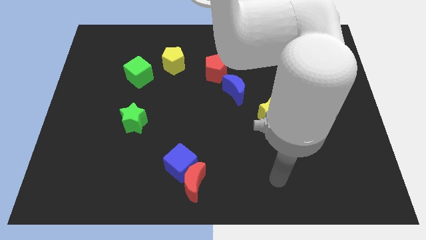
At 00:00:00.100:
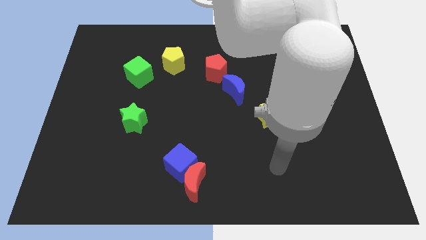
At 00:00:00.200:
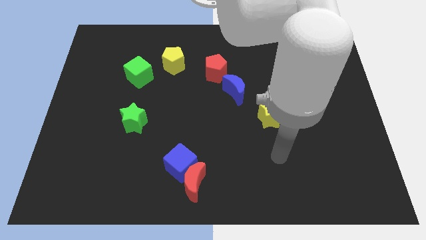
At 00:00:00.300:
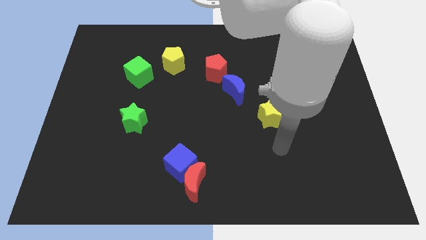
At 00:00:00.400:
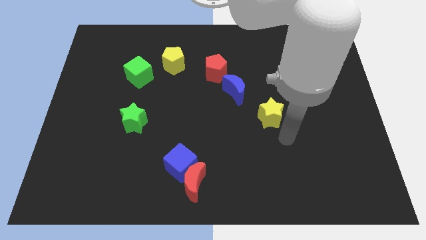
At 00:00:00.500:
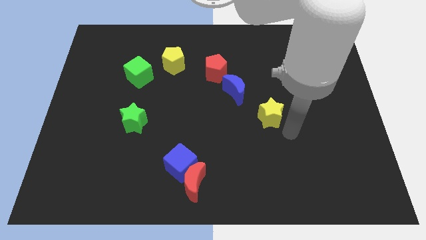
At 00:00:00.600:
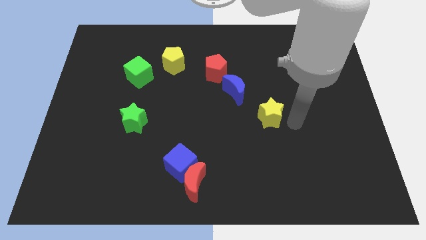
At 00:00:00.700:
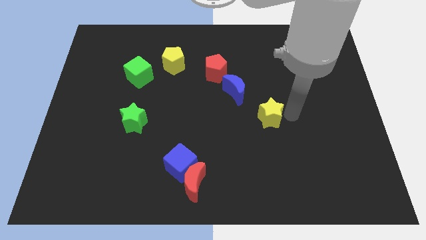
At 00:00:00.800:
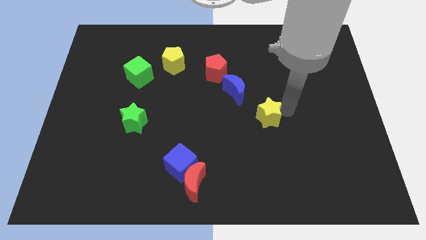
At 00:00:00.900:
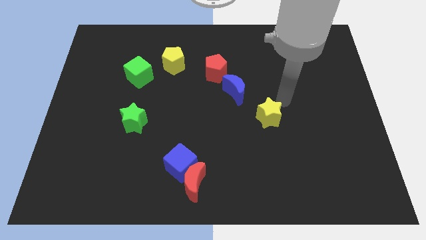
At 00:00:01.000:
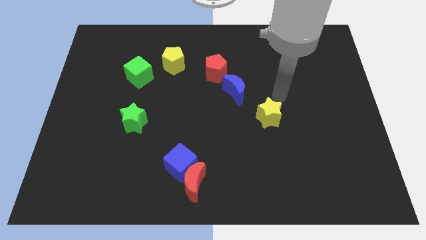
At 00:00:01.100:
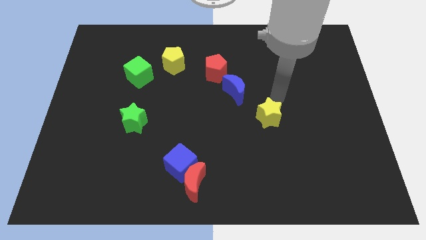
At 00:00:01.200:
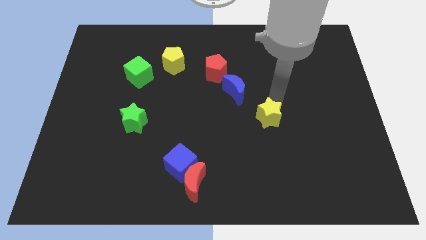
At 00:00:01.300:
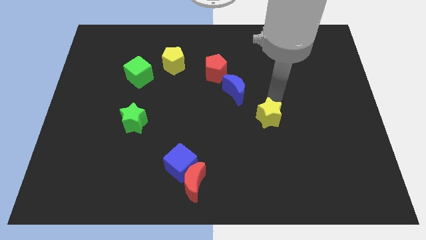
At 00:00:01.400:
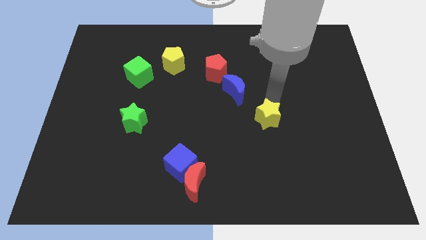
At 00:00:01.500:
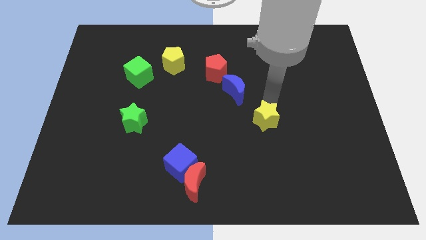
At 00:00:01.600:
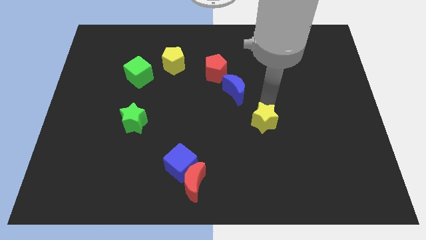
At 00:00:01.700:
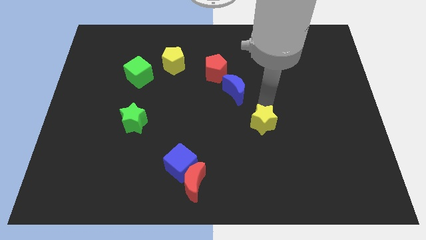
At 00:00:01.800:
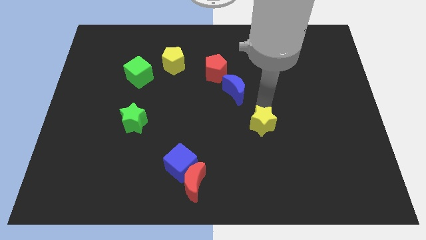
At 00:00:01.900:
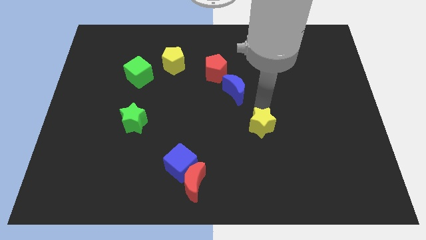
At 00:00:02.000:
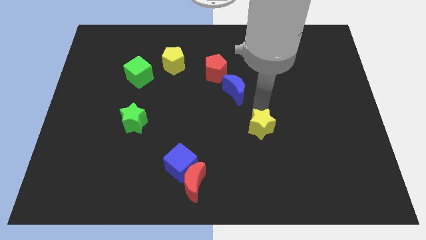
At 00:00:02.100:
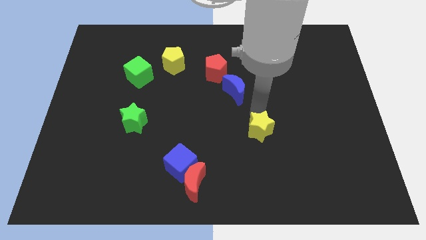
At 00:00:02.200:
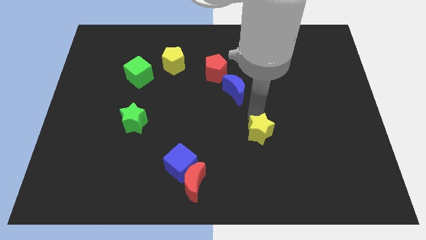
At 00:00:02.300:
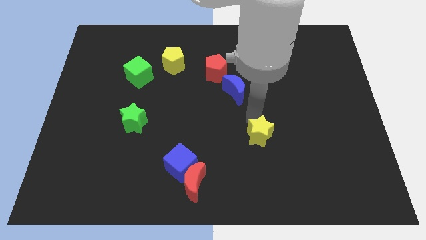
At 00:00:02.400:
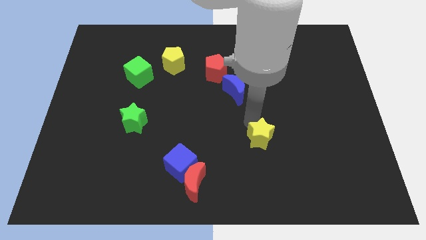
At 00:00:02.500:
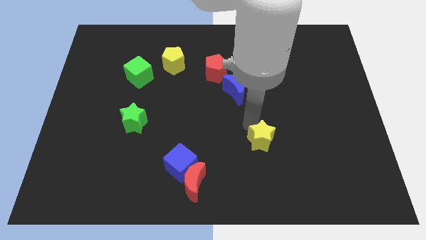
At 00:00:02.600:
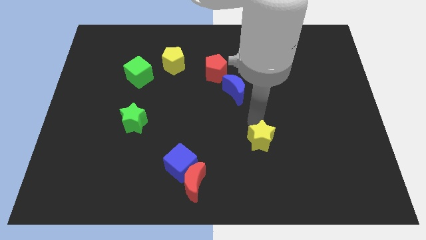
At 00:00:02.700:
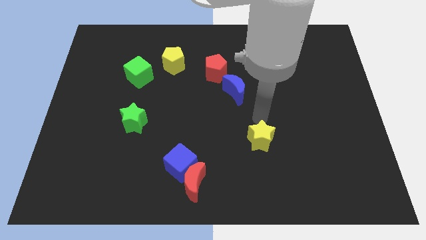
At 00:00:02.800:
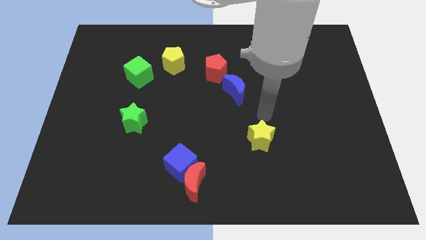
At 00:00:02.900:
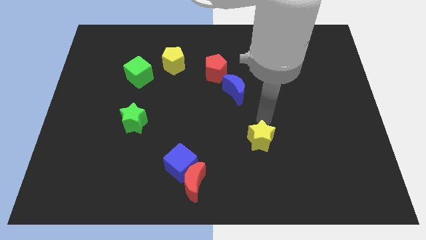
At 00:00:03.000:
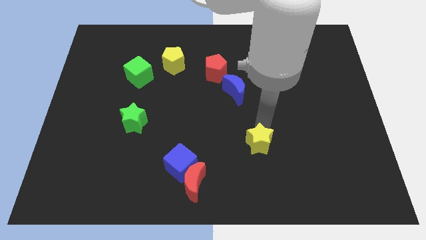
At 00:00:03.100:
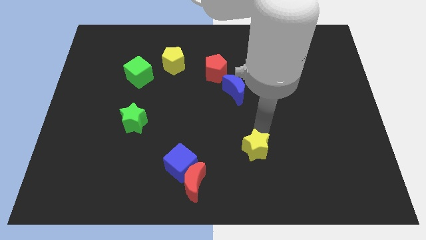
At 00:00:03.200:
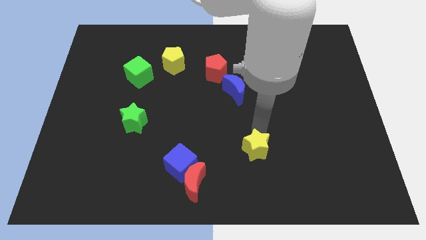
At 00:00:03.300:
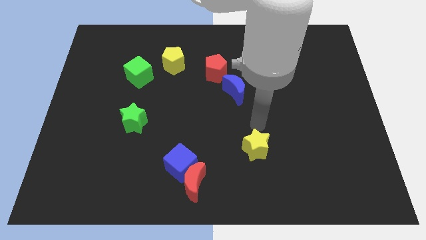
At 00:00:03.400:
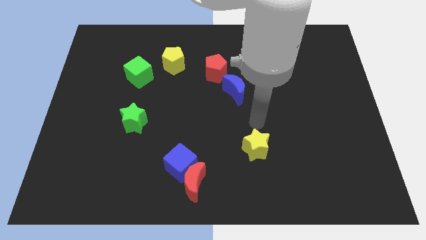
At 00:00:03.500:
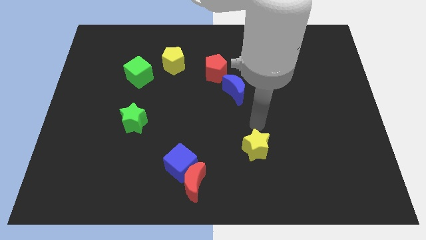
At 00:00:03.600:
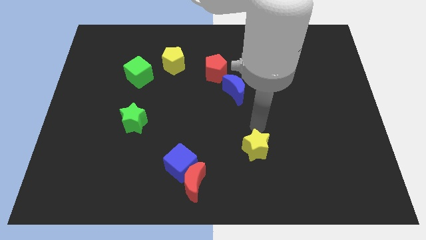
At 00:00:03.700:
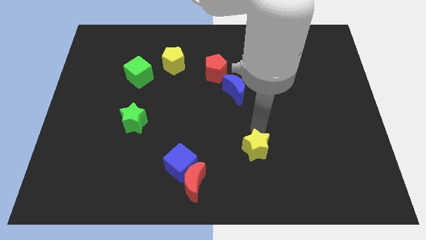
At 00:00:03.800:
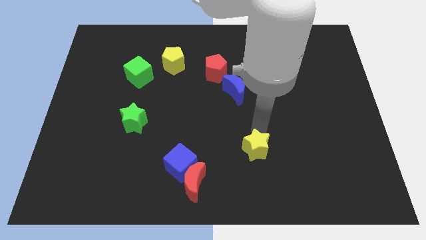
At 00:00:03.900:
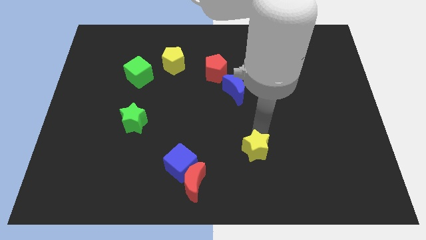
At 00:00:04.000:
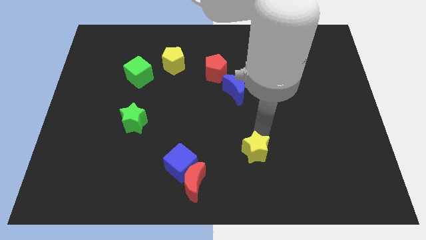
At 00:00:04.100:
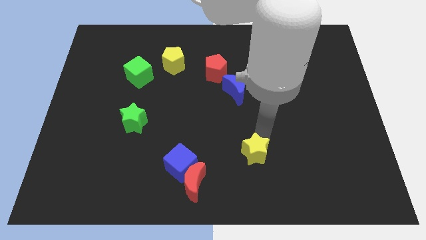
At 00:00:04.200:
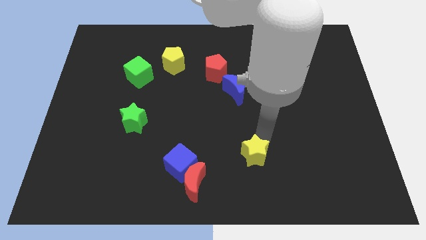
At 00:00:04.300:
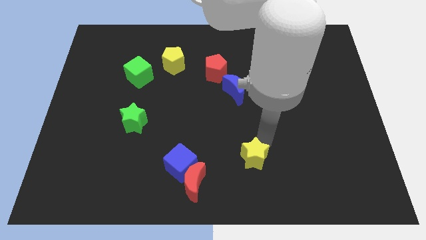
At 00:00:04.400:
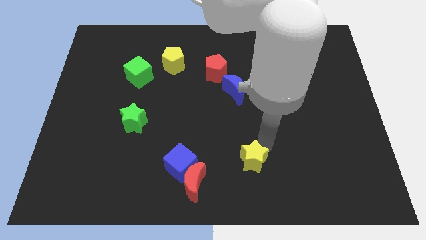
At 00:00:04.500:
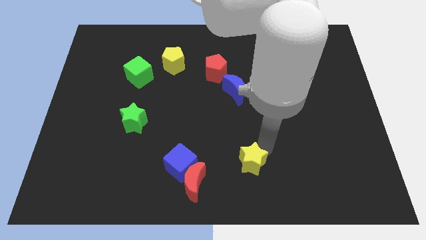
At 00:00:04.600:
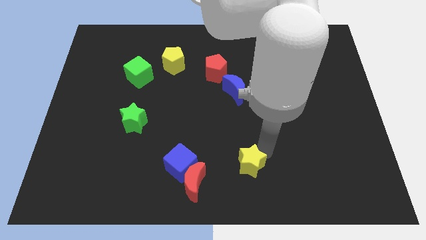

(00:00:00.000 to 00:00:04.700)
put the yellow star to the bottom side

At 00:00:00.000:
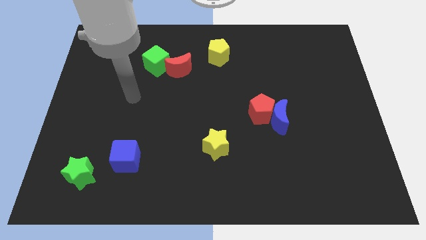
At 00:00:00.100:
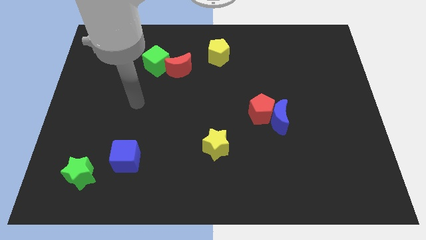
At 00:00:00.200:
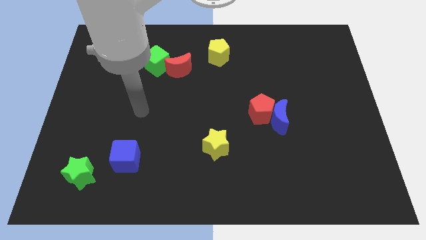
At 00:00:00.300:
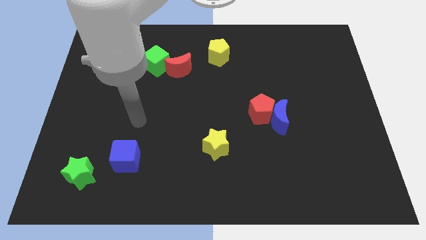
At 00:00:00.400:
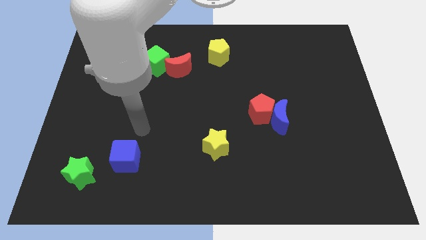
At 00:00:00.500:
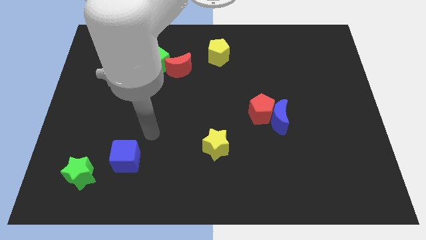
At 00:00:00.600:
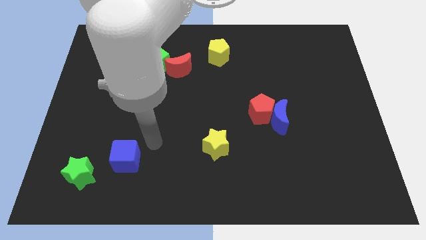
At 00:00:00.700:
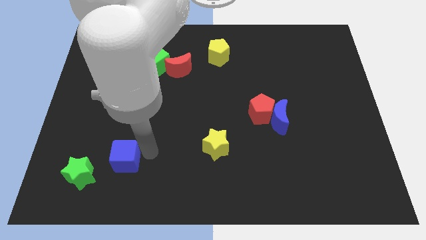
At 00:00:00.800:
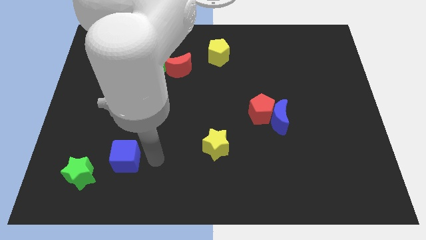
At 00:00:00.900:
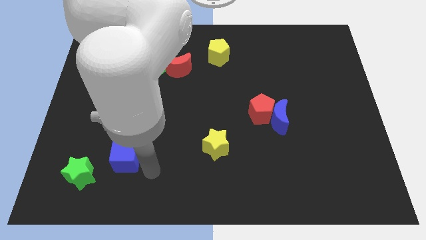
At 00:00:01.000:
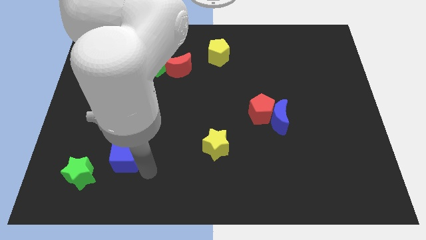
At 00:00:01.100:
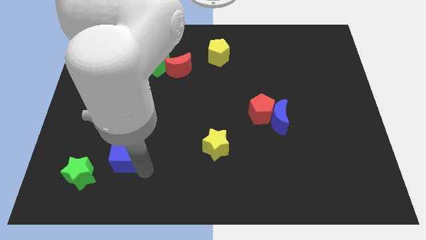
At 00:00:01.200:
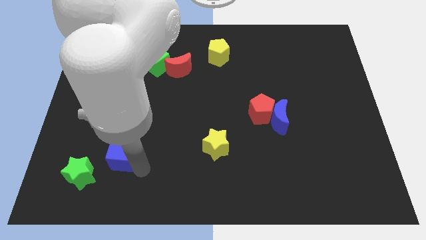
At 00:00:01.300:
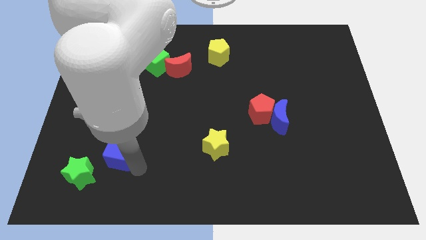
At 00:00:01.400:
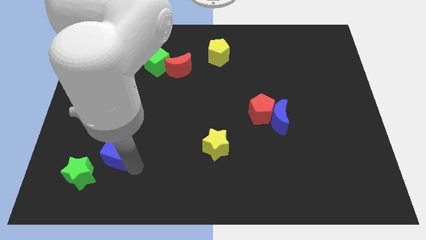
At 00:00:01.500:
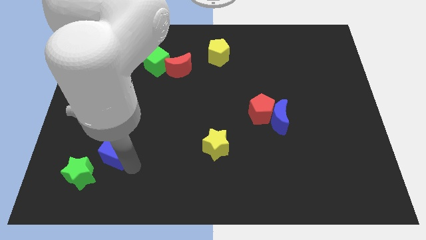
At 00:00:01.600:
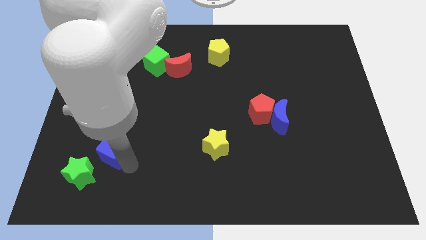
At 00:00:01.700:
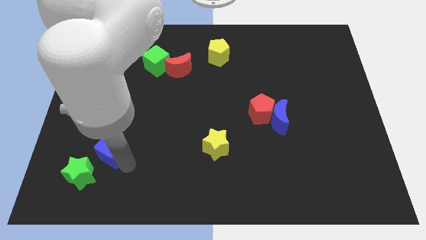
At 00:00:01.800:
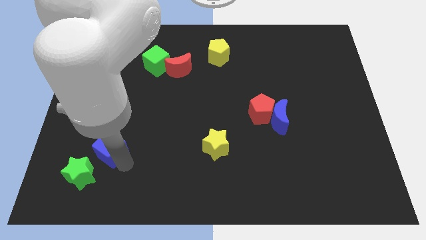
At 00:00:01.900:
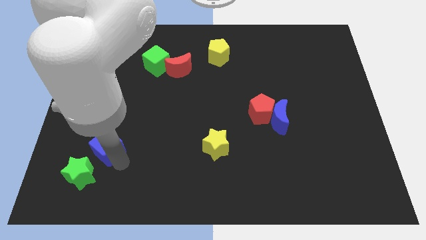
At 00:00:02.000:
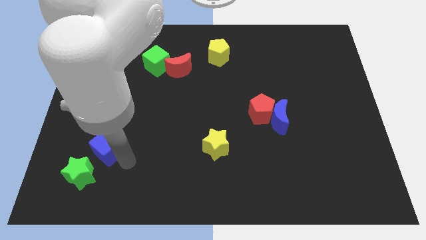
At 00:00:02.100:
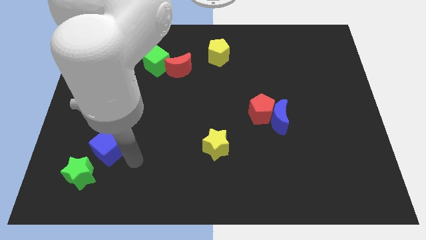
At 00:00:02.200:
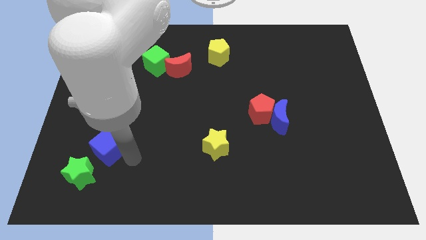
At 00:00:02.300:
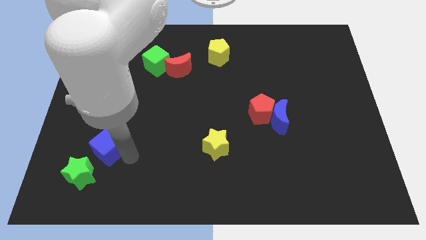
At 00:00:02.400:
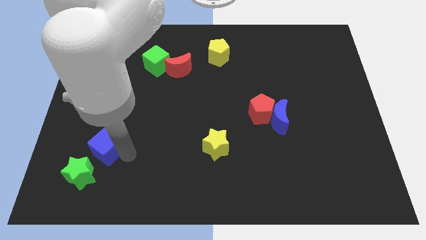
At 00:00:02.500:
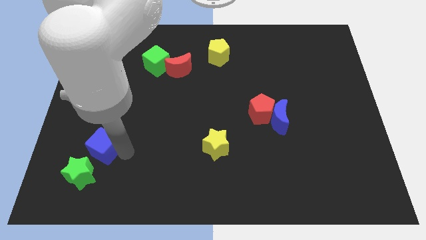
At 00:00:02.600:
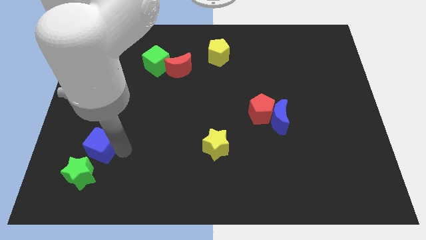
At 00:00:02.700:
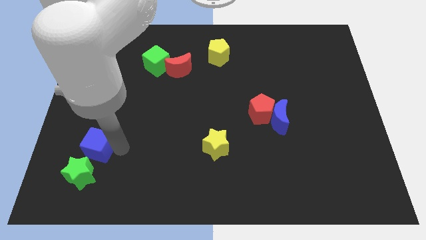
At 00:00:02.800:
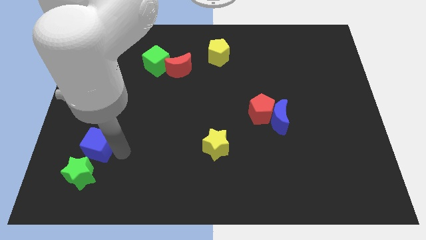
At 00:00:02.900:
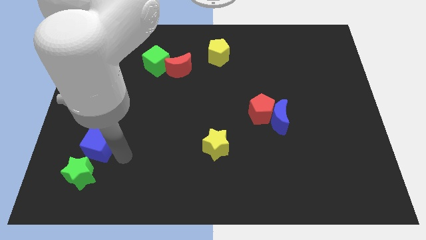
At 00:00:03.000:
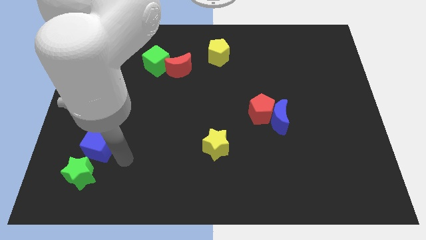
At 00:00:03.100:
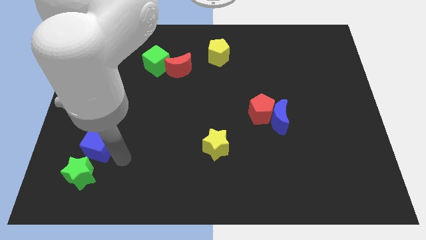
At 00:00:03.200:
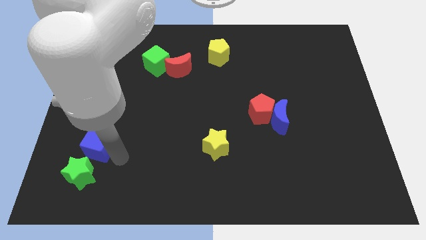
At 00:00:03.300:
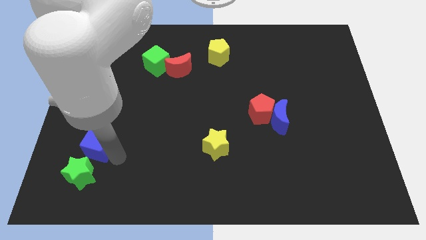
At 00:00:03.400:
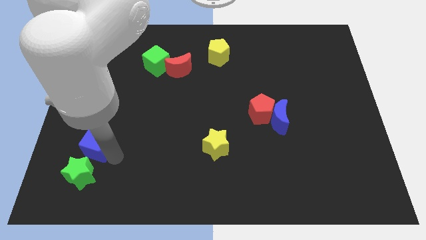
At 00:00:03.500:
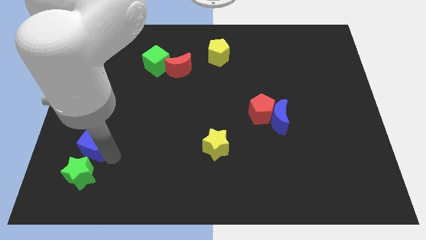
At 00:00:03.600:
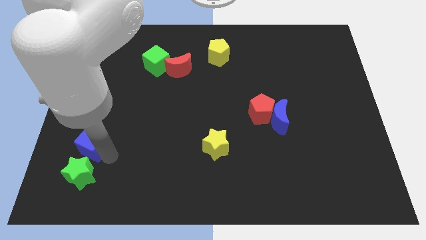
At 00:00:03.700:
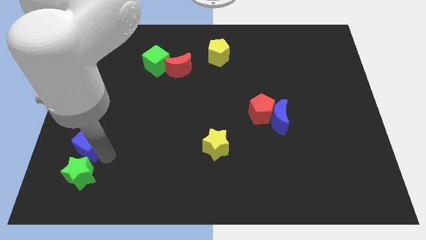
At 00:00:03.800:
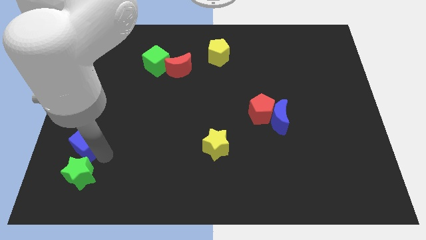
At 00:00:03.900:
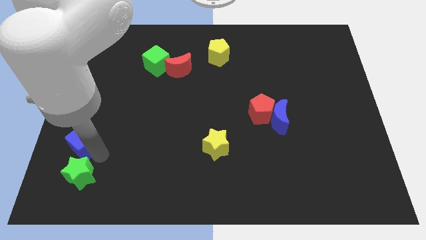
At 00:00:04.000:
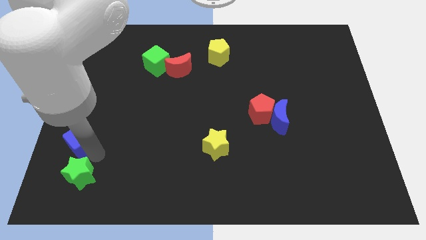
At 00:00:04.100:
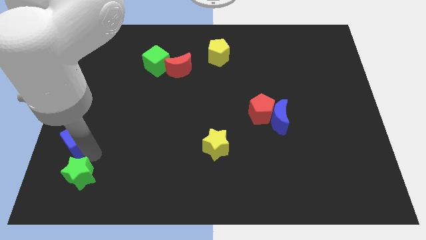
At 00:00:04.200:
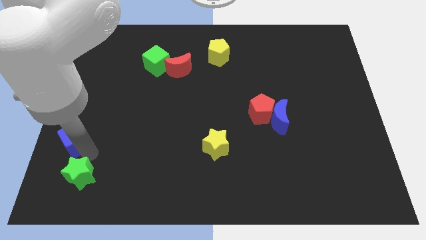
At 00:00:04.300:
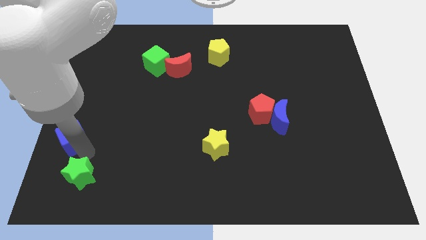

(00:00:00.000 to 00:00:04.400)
slide the blue cube to the left side of the board
